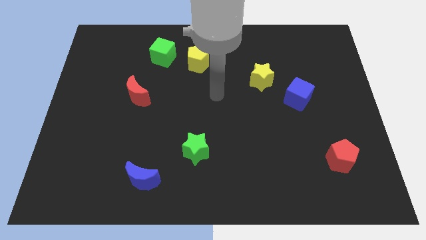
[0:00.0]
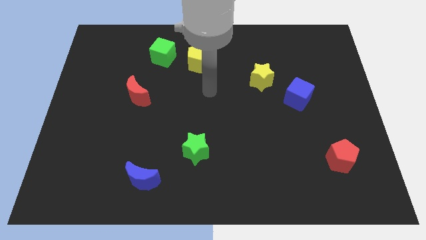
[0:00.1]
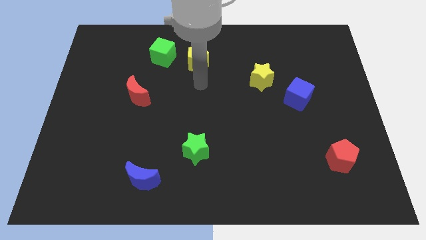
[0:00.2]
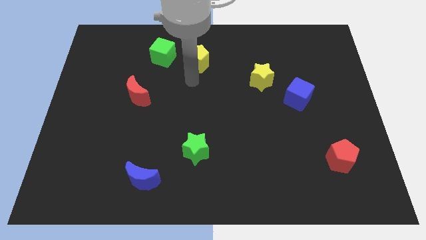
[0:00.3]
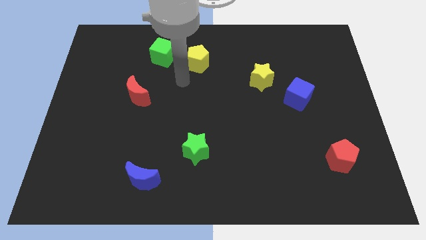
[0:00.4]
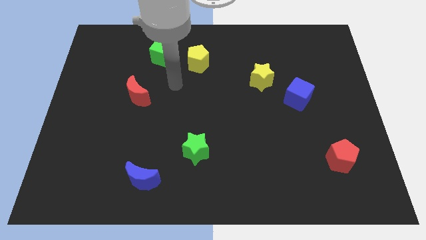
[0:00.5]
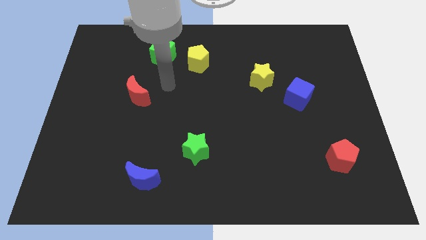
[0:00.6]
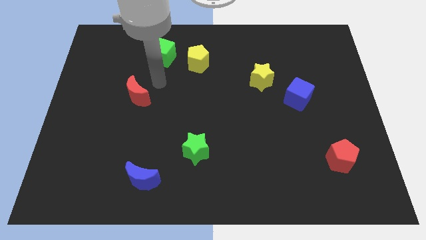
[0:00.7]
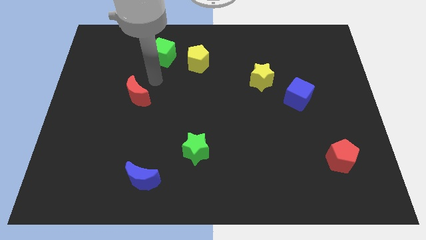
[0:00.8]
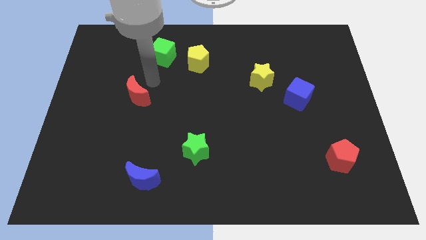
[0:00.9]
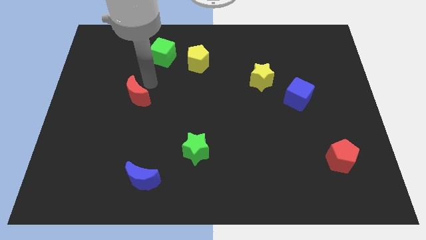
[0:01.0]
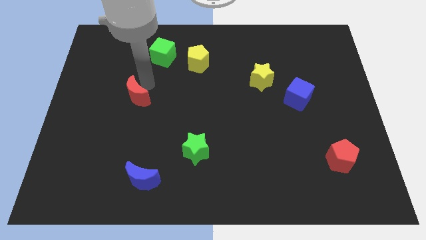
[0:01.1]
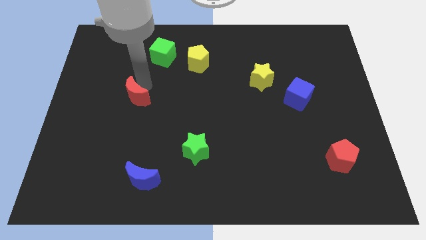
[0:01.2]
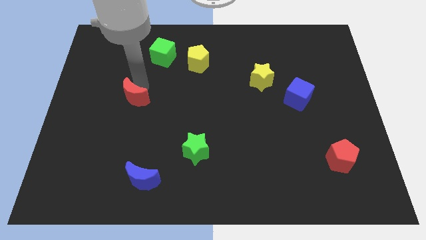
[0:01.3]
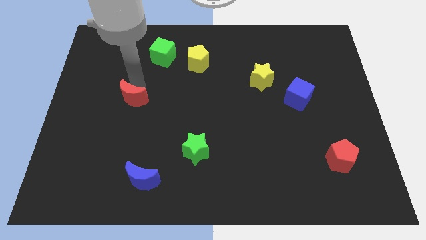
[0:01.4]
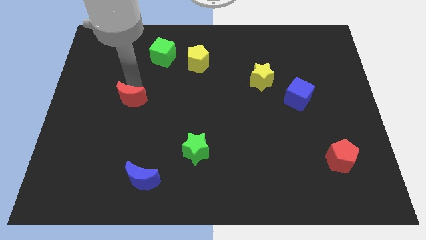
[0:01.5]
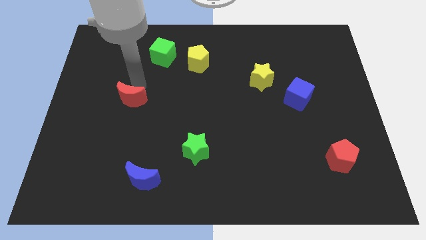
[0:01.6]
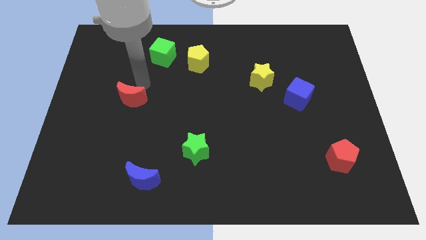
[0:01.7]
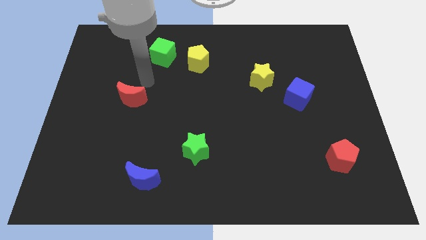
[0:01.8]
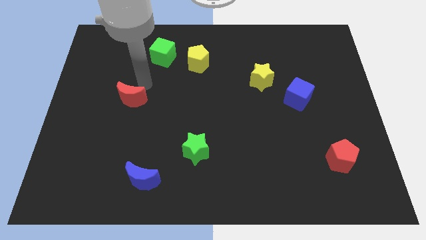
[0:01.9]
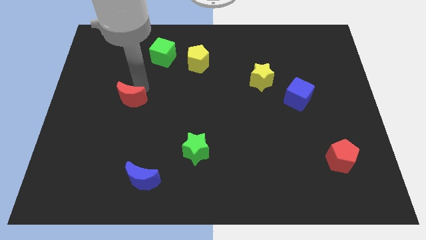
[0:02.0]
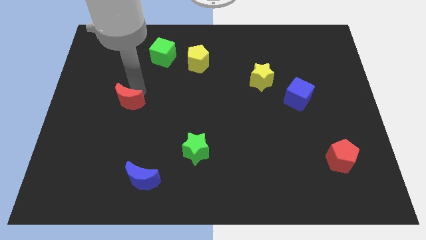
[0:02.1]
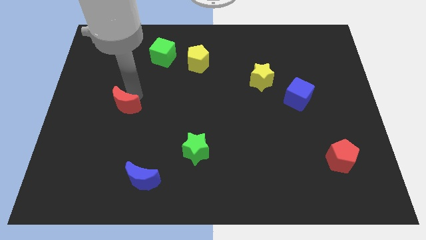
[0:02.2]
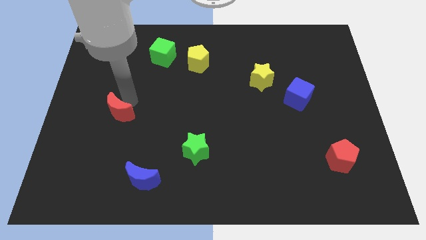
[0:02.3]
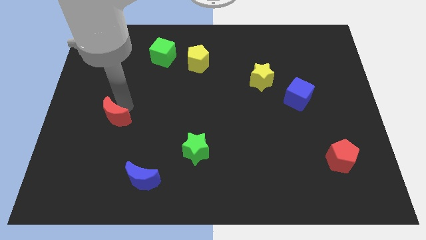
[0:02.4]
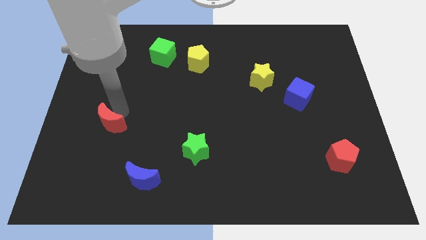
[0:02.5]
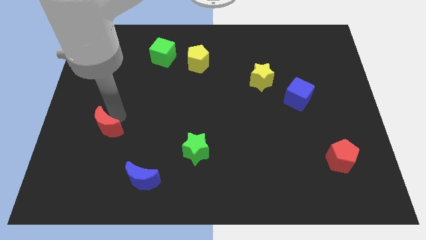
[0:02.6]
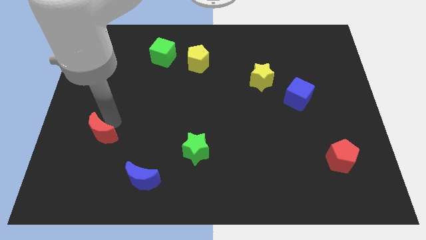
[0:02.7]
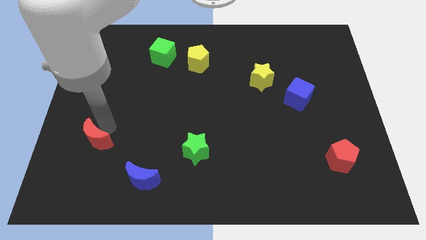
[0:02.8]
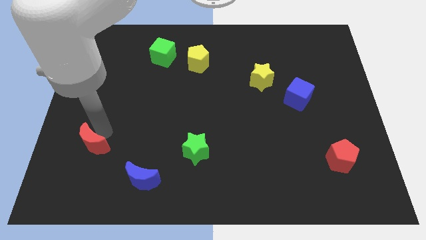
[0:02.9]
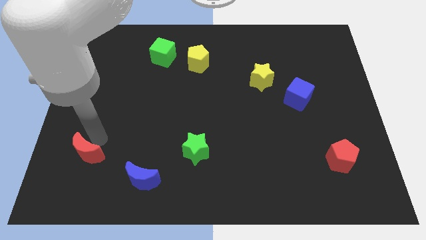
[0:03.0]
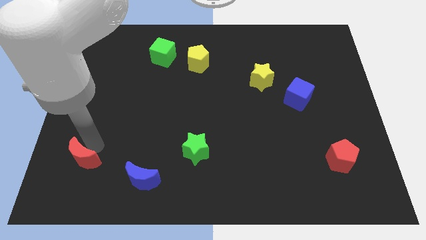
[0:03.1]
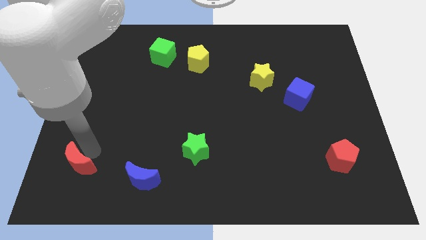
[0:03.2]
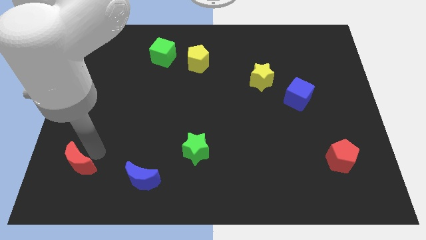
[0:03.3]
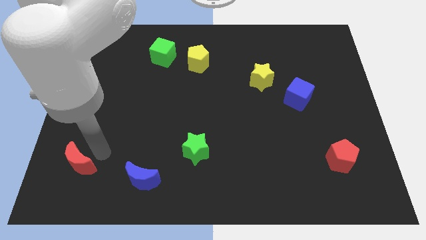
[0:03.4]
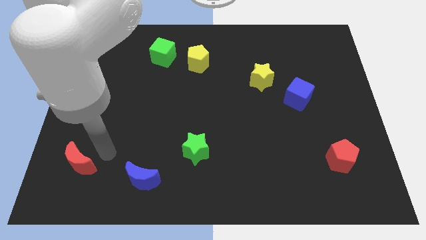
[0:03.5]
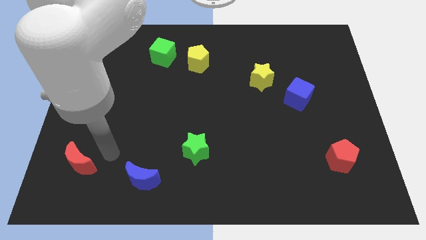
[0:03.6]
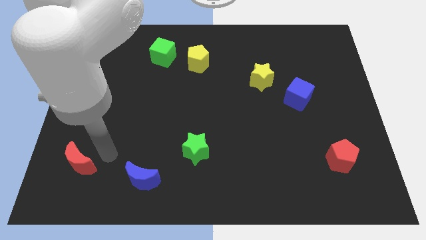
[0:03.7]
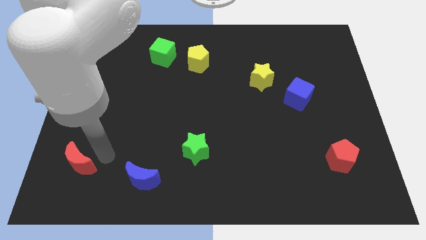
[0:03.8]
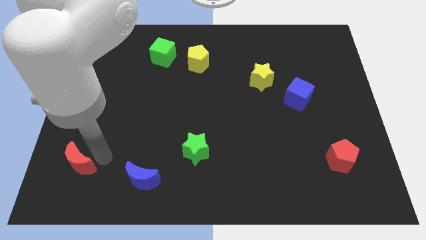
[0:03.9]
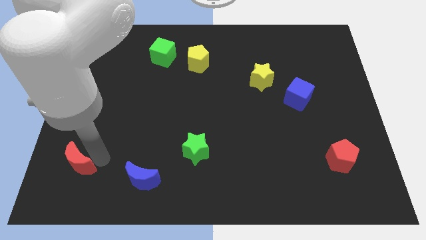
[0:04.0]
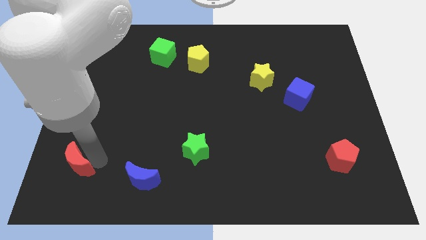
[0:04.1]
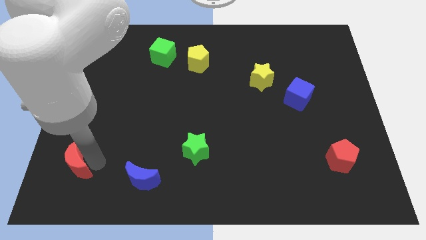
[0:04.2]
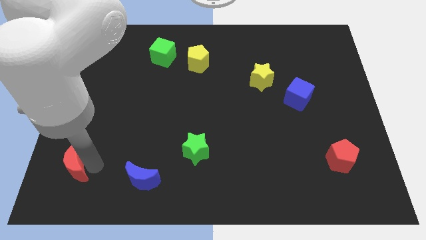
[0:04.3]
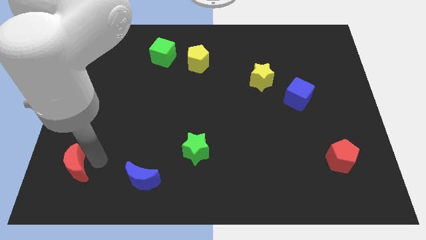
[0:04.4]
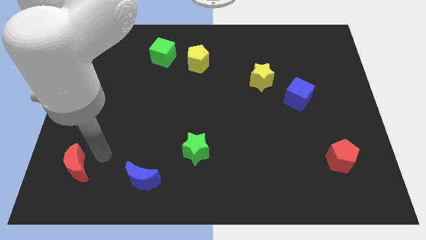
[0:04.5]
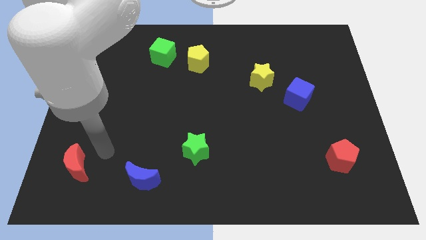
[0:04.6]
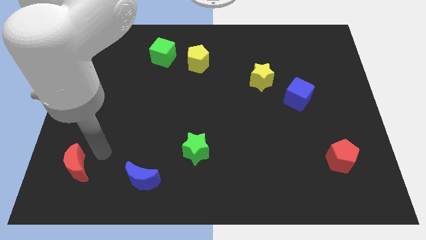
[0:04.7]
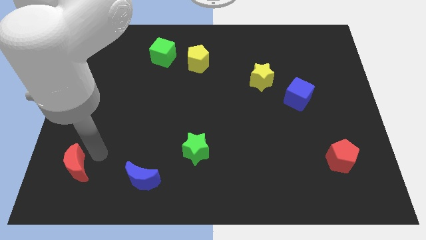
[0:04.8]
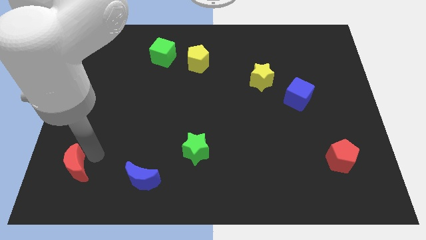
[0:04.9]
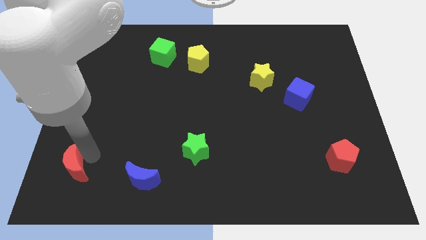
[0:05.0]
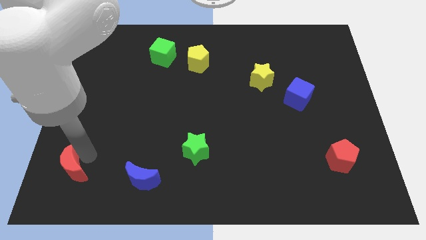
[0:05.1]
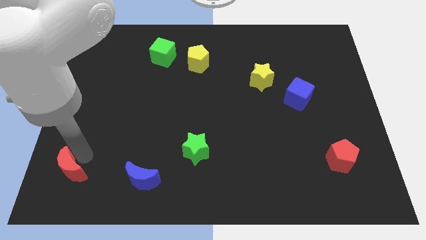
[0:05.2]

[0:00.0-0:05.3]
move the red moon to the bottom left corner

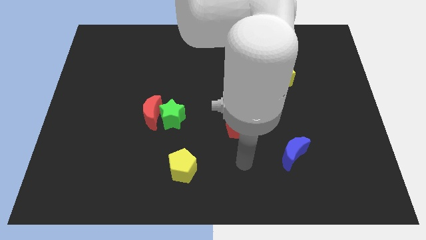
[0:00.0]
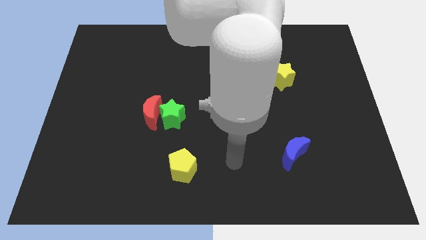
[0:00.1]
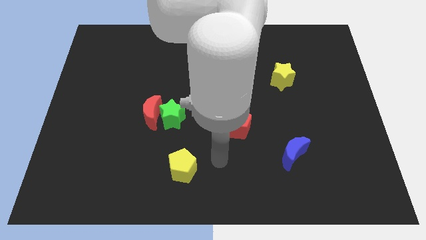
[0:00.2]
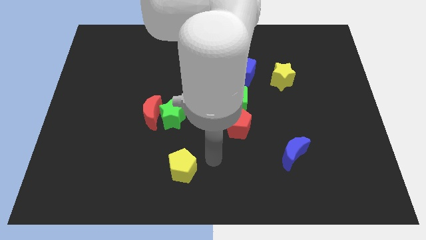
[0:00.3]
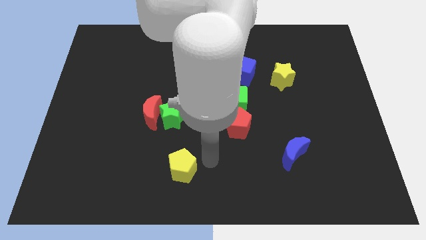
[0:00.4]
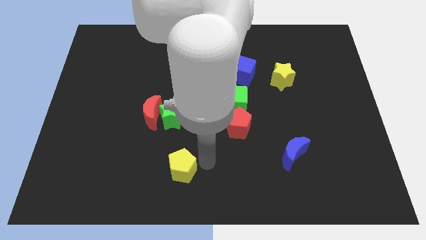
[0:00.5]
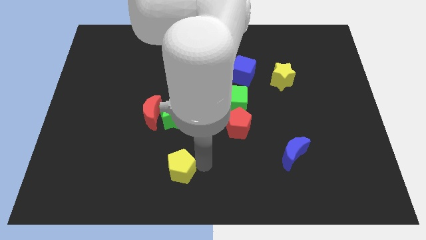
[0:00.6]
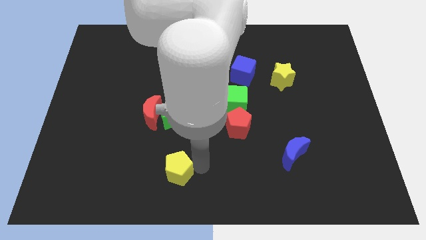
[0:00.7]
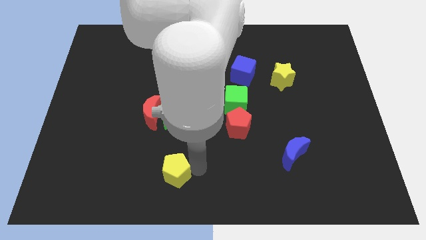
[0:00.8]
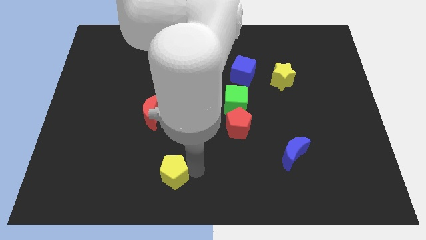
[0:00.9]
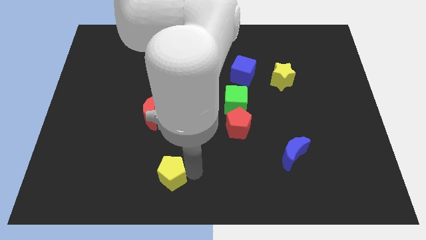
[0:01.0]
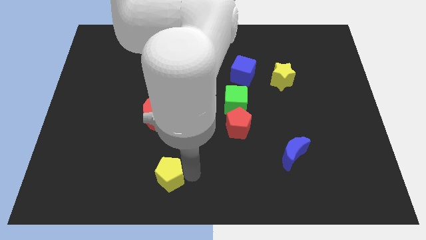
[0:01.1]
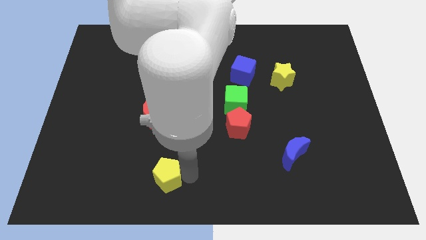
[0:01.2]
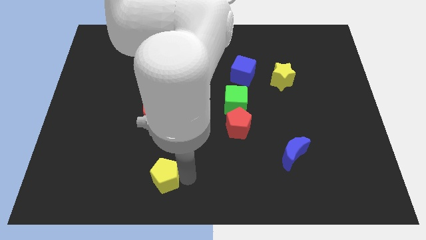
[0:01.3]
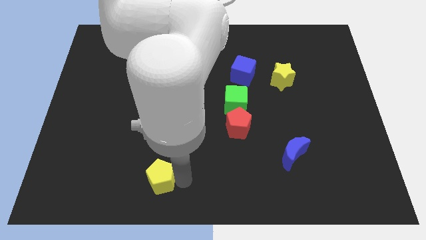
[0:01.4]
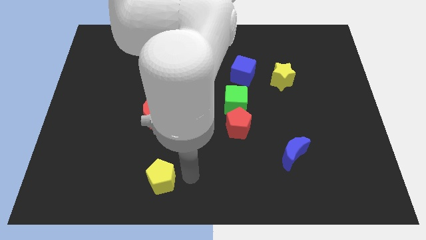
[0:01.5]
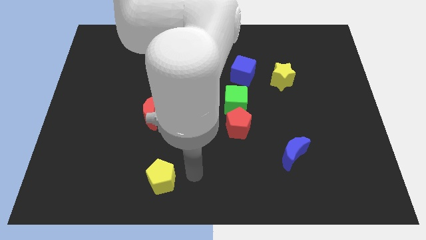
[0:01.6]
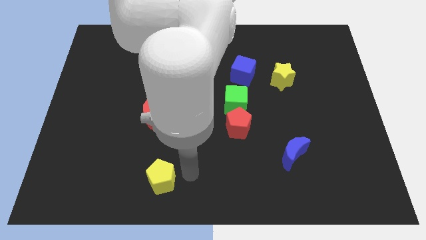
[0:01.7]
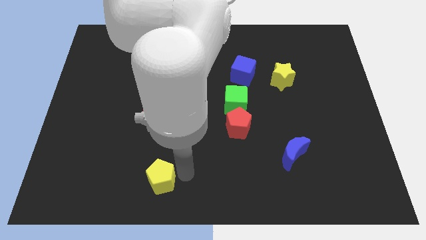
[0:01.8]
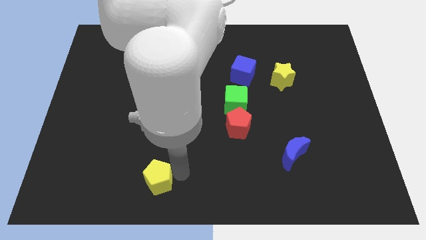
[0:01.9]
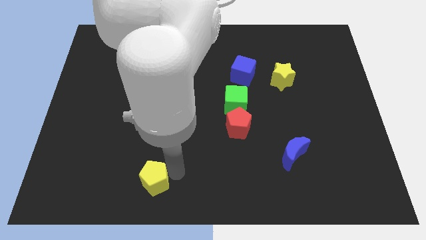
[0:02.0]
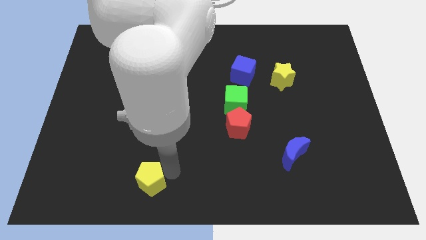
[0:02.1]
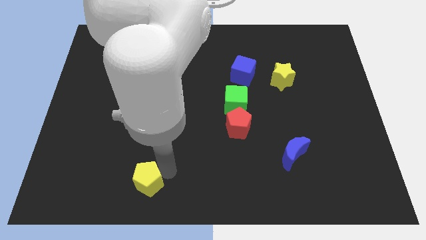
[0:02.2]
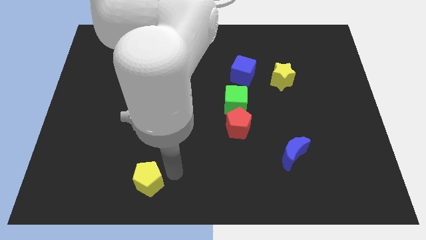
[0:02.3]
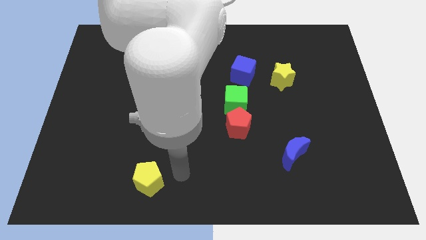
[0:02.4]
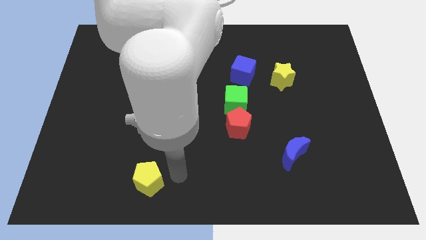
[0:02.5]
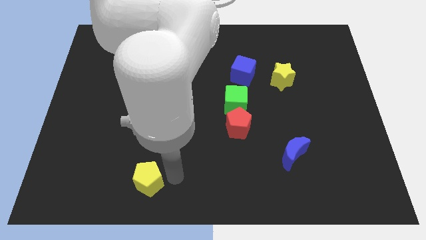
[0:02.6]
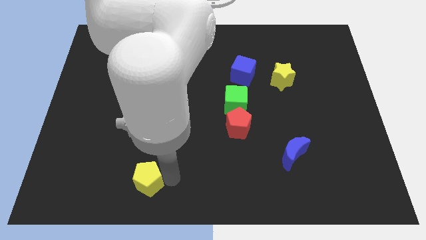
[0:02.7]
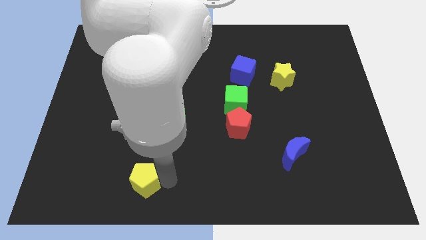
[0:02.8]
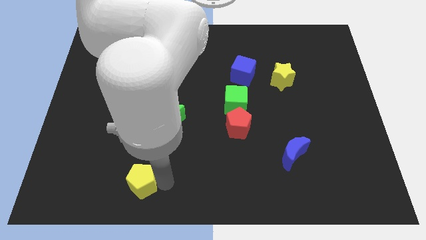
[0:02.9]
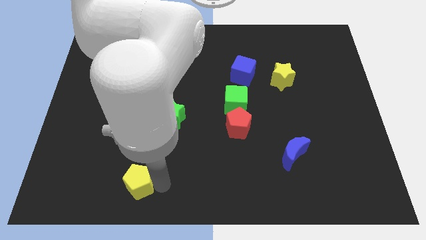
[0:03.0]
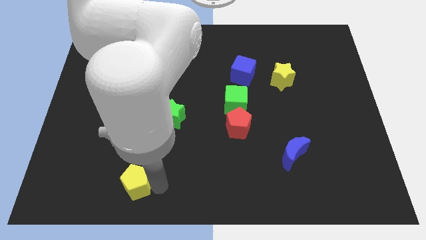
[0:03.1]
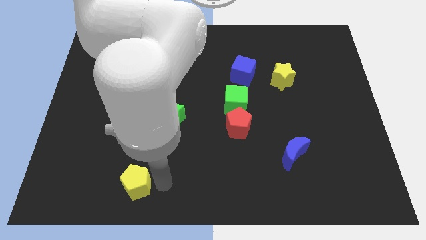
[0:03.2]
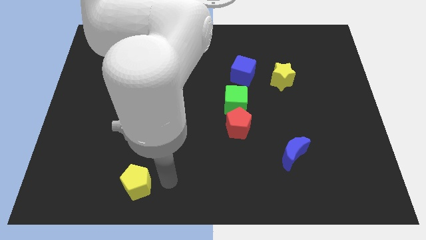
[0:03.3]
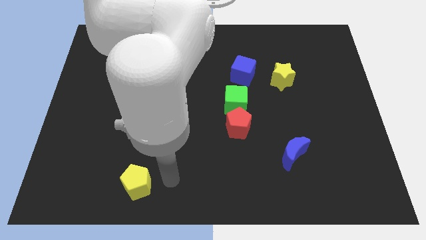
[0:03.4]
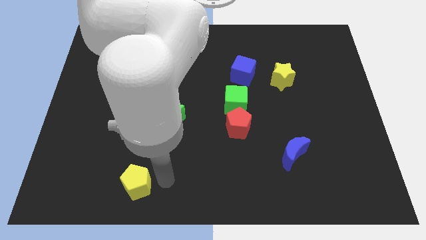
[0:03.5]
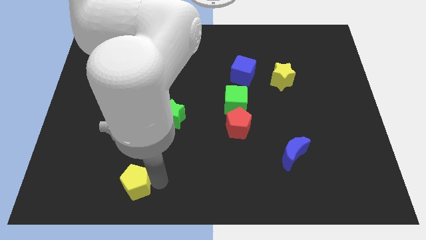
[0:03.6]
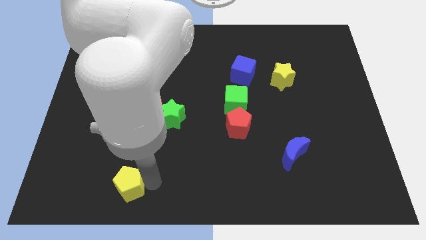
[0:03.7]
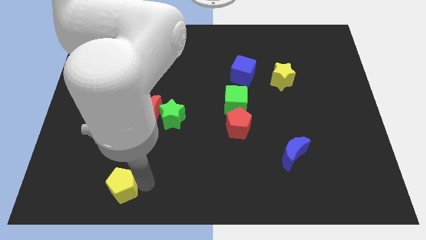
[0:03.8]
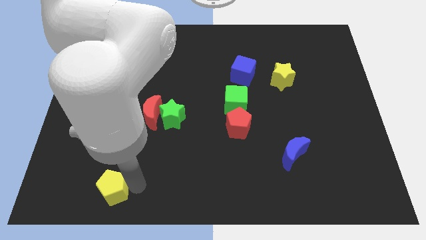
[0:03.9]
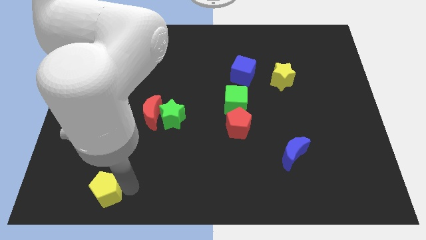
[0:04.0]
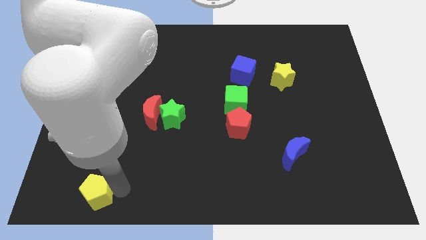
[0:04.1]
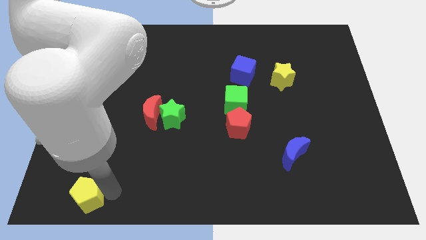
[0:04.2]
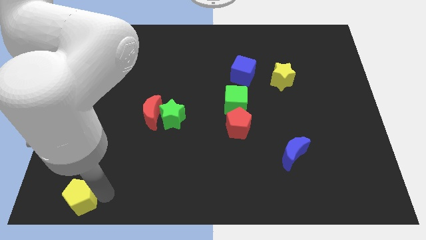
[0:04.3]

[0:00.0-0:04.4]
put the yellow pentagon to the lower left corner
